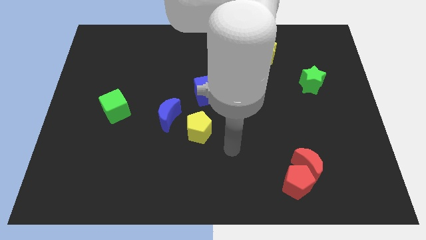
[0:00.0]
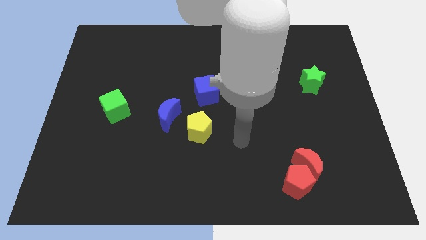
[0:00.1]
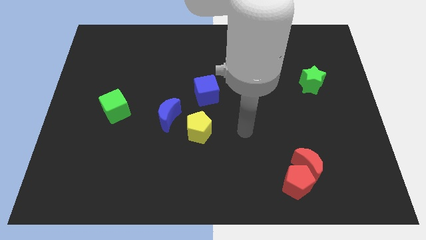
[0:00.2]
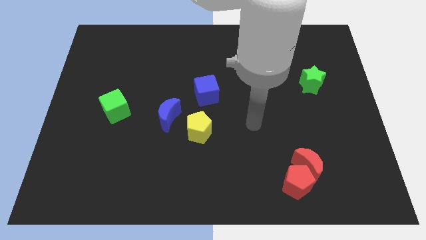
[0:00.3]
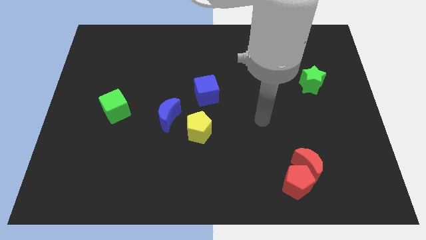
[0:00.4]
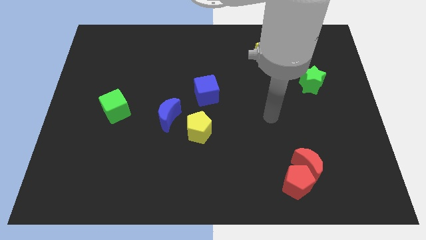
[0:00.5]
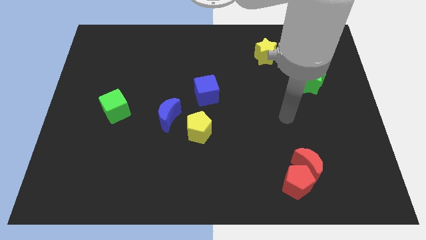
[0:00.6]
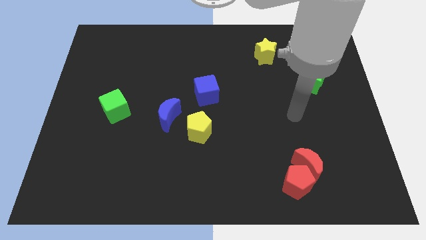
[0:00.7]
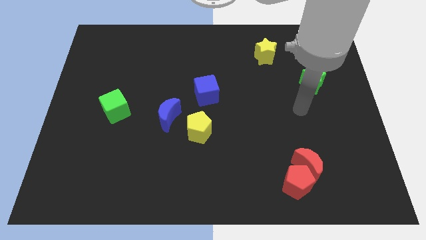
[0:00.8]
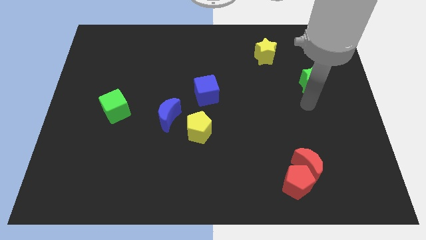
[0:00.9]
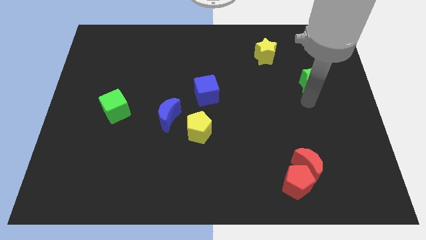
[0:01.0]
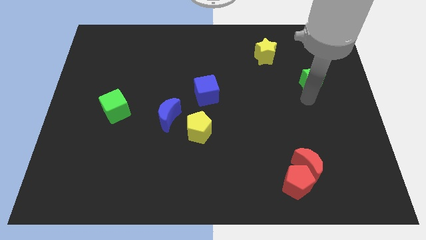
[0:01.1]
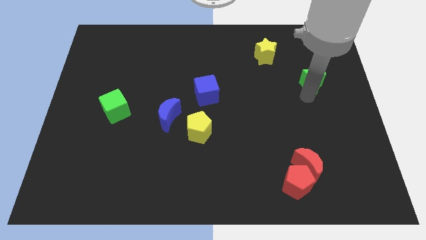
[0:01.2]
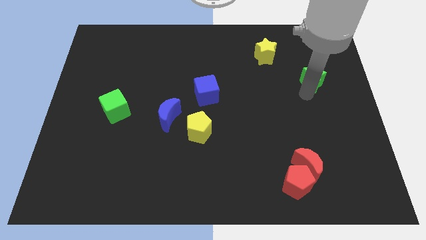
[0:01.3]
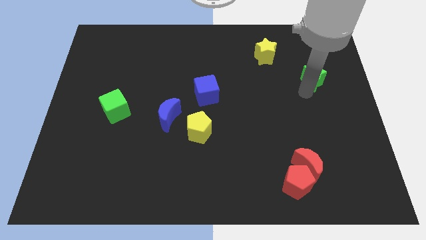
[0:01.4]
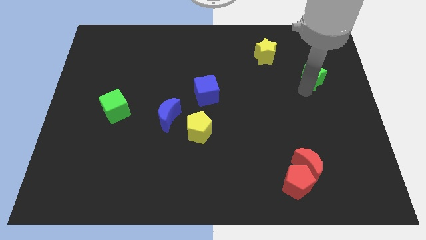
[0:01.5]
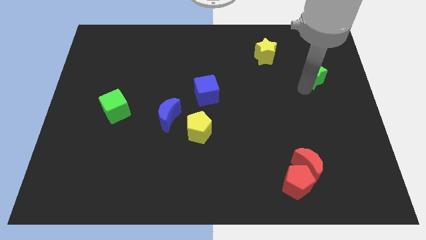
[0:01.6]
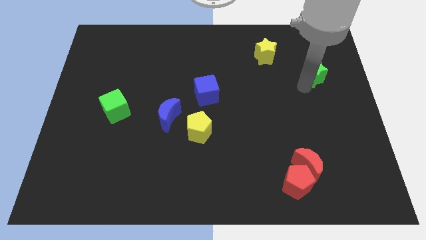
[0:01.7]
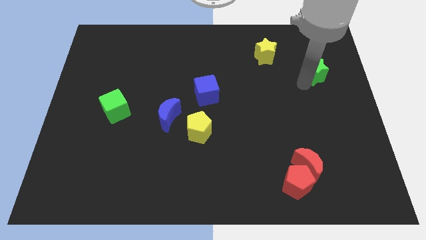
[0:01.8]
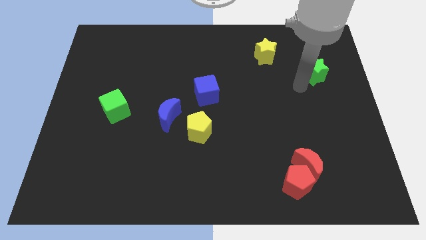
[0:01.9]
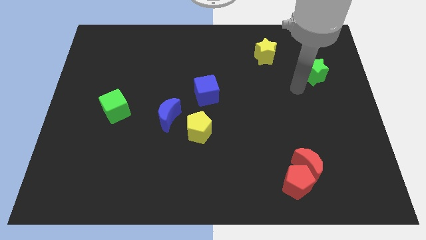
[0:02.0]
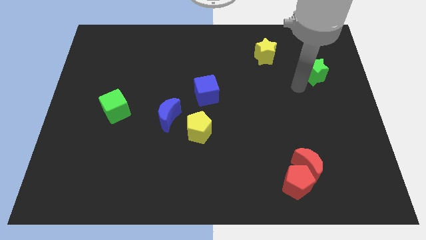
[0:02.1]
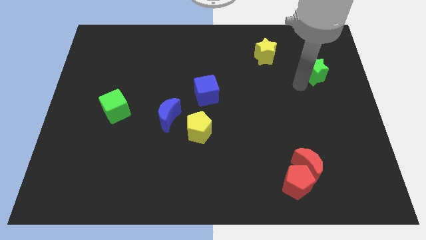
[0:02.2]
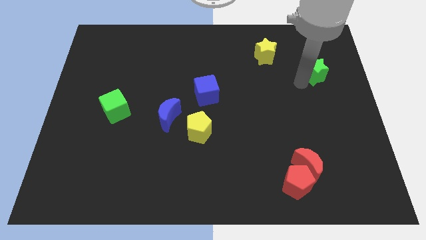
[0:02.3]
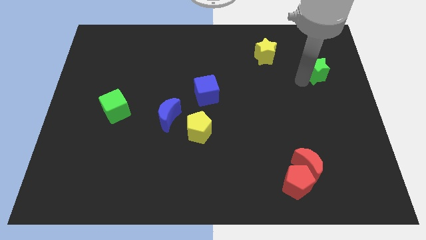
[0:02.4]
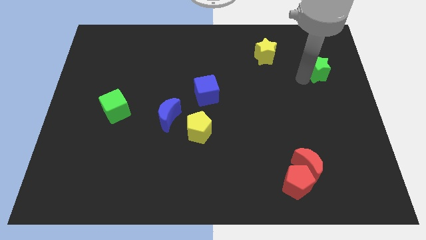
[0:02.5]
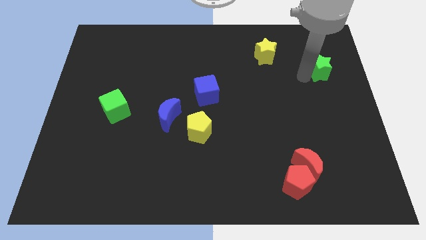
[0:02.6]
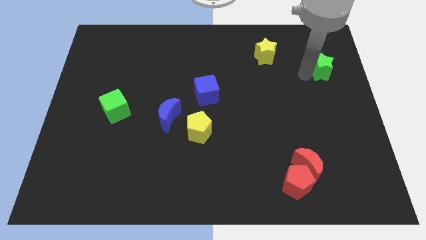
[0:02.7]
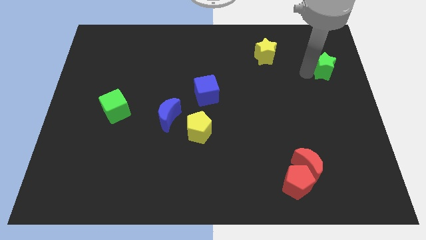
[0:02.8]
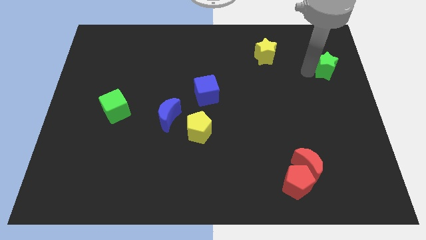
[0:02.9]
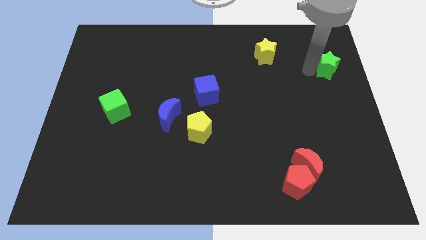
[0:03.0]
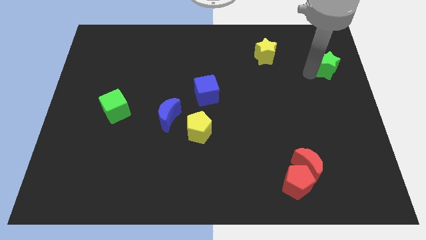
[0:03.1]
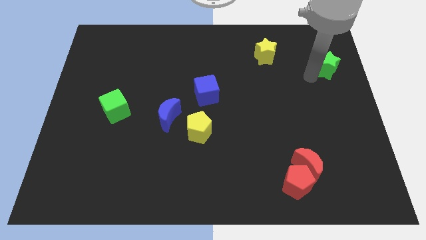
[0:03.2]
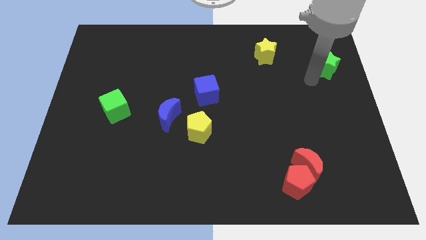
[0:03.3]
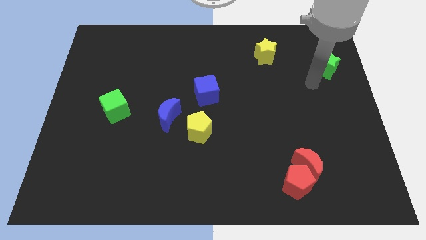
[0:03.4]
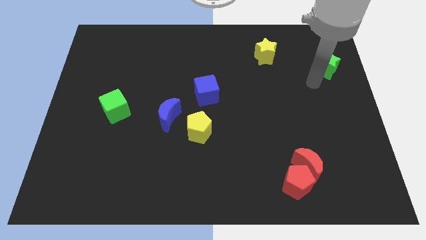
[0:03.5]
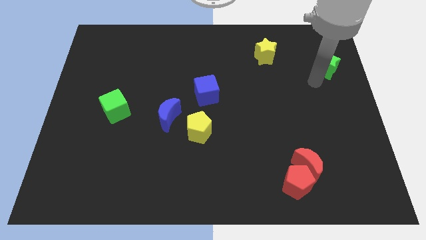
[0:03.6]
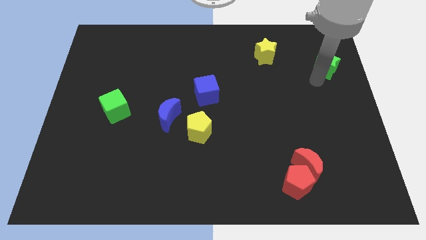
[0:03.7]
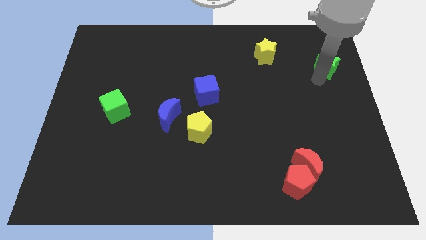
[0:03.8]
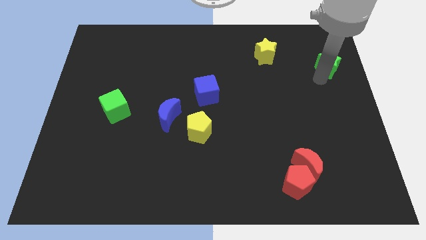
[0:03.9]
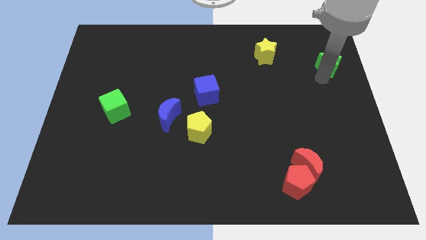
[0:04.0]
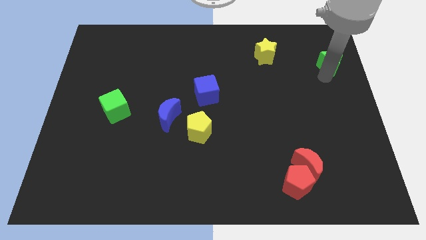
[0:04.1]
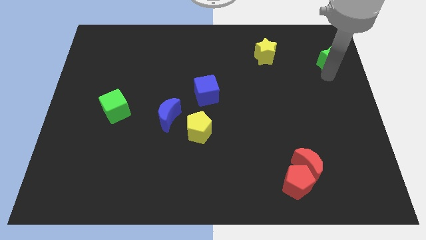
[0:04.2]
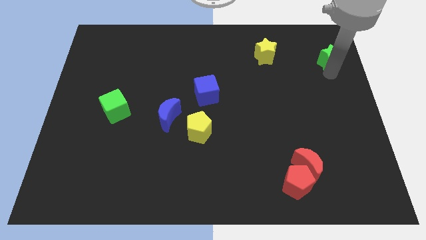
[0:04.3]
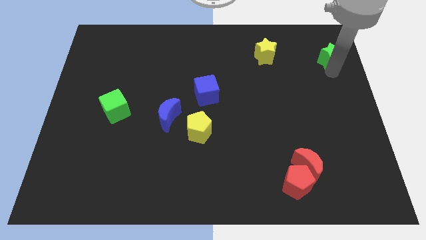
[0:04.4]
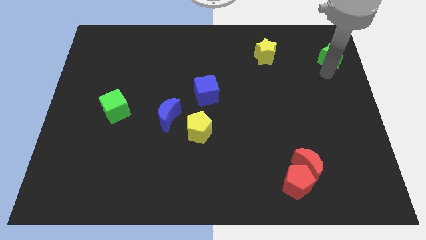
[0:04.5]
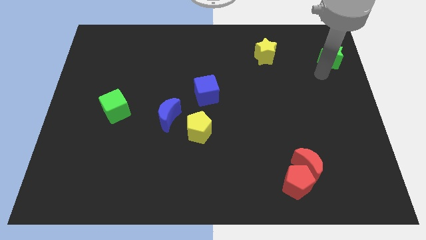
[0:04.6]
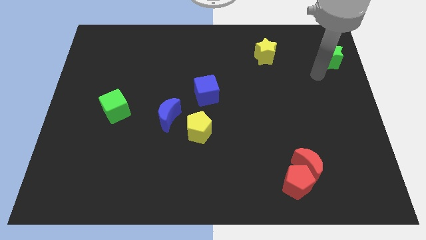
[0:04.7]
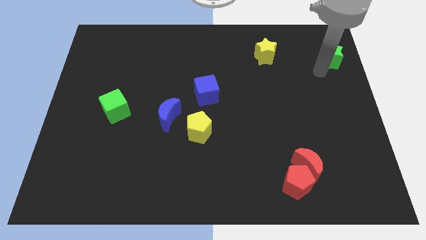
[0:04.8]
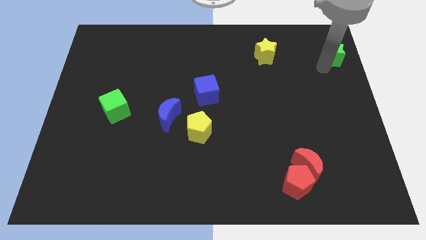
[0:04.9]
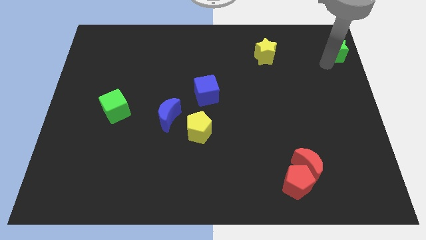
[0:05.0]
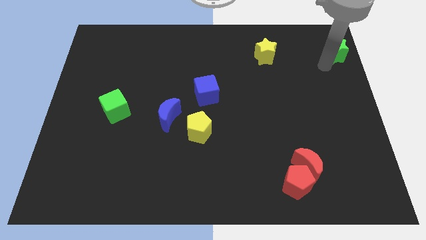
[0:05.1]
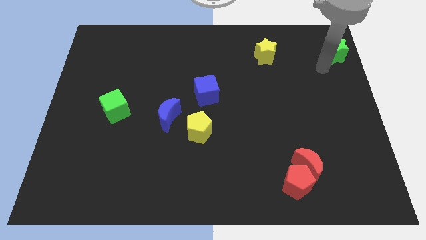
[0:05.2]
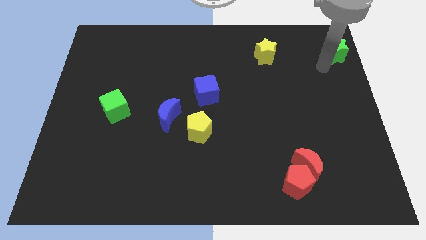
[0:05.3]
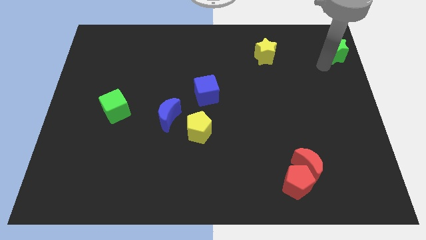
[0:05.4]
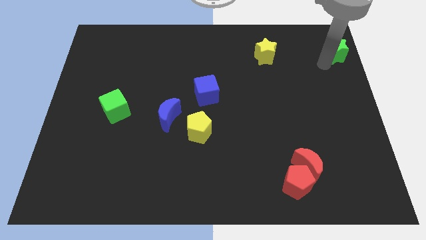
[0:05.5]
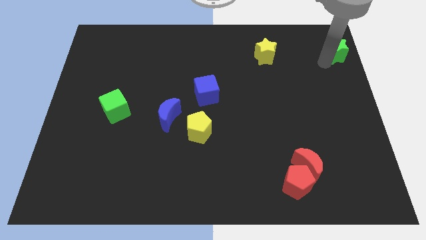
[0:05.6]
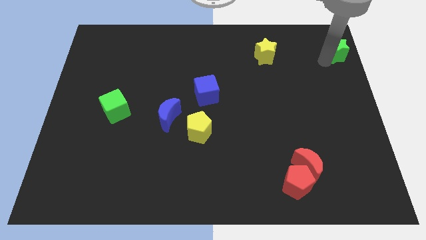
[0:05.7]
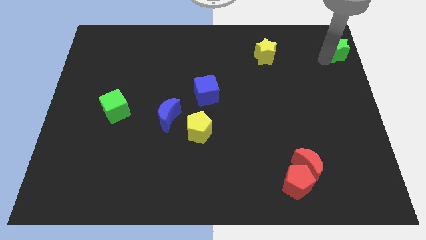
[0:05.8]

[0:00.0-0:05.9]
slide the green star to the upper right corner

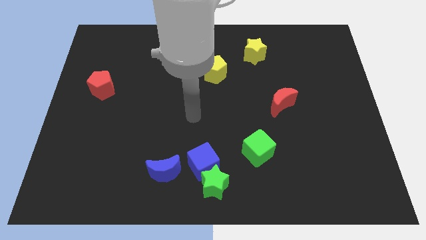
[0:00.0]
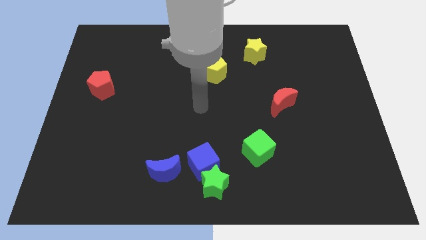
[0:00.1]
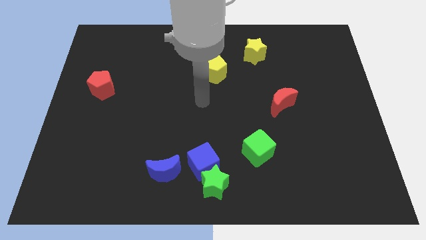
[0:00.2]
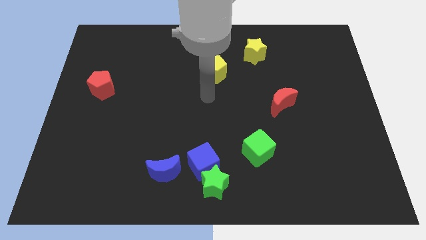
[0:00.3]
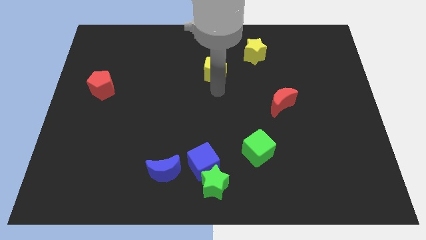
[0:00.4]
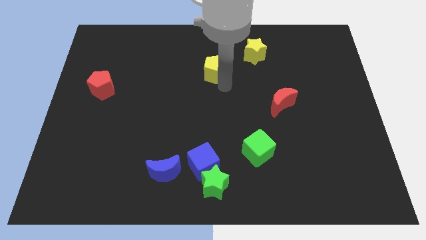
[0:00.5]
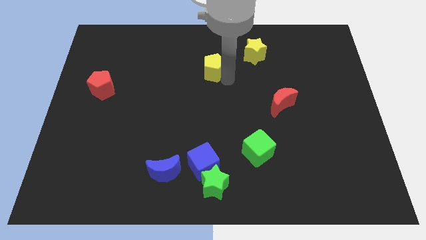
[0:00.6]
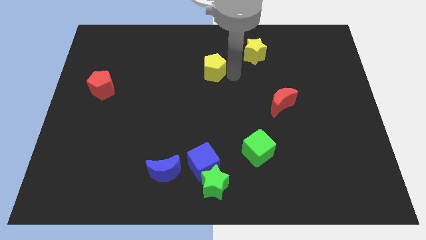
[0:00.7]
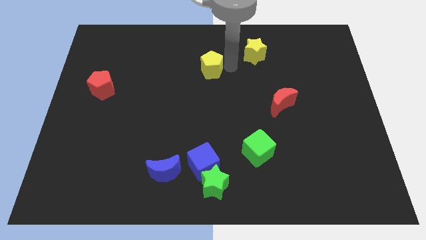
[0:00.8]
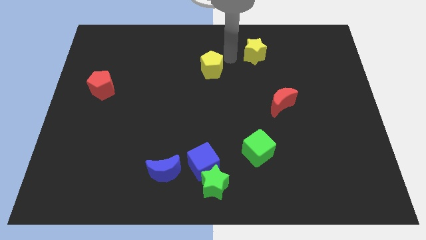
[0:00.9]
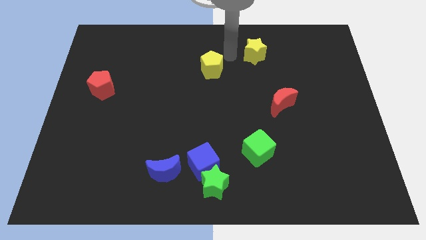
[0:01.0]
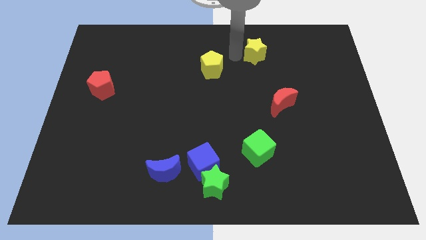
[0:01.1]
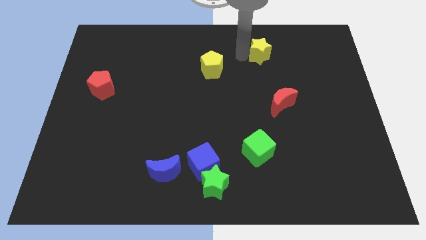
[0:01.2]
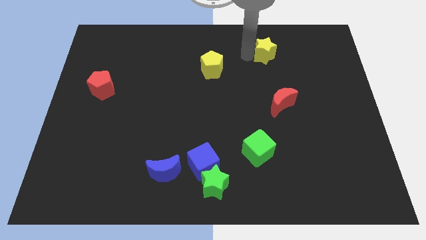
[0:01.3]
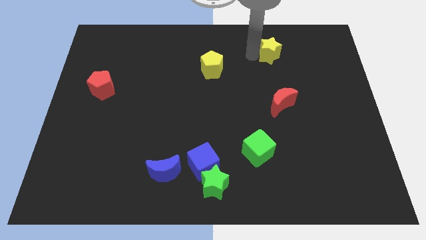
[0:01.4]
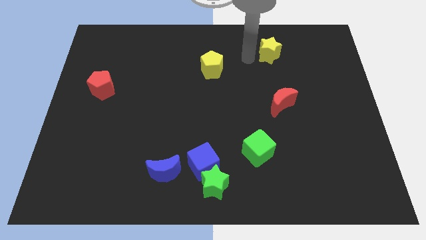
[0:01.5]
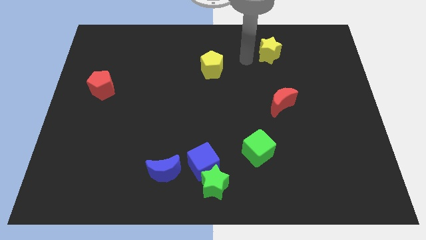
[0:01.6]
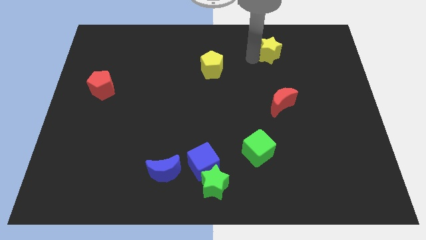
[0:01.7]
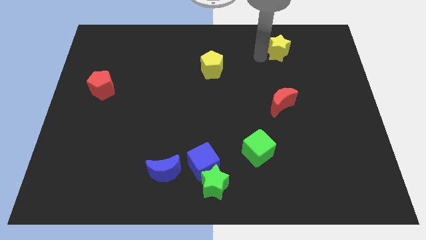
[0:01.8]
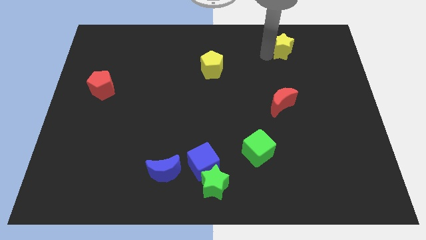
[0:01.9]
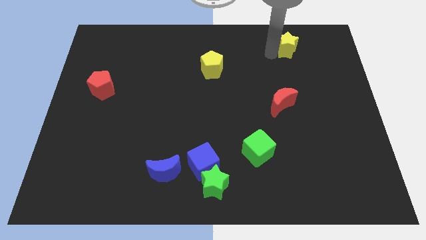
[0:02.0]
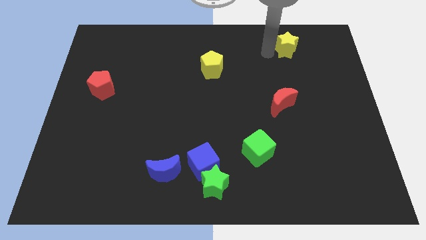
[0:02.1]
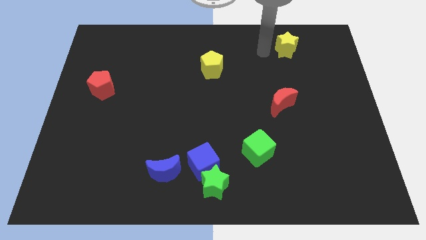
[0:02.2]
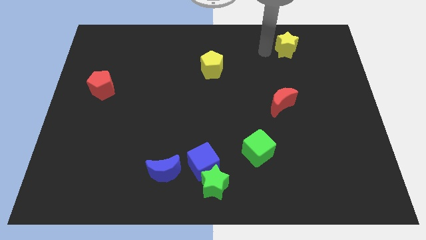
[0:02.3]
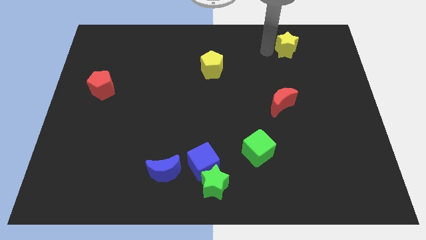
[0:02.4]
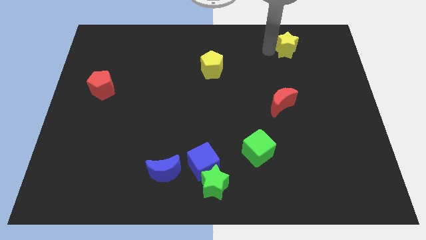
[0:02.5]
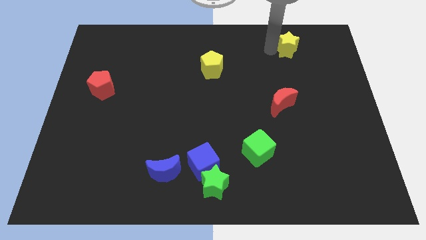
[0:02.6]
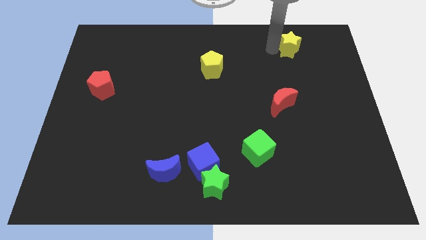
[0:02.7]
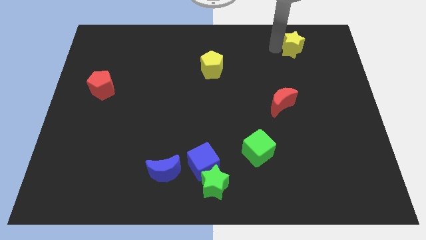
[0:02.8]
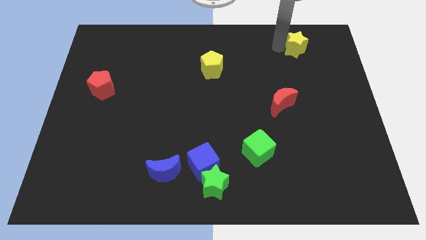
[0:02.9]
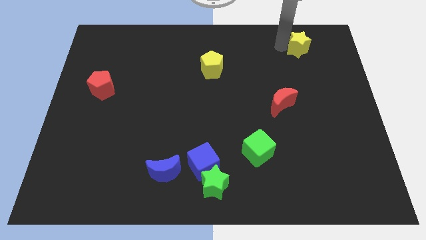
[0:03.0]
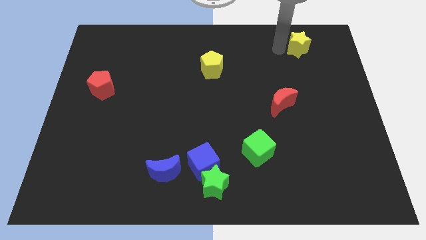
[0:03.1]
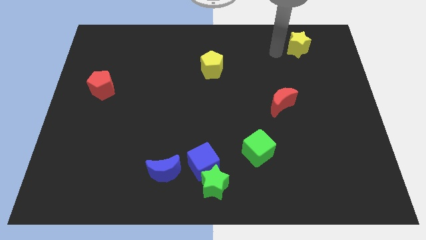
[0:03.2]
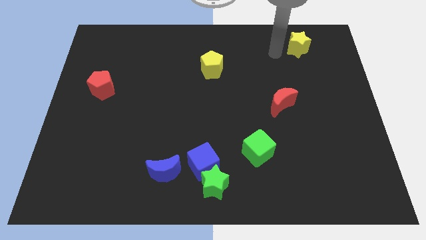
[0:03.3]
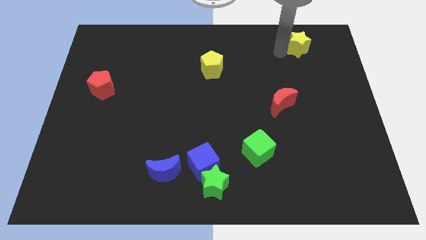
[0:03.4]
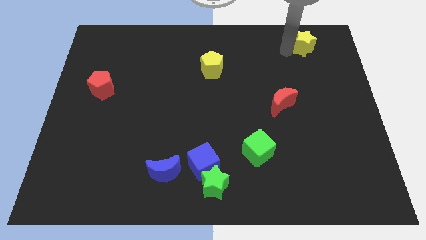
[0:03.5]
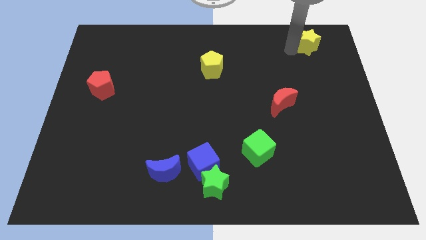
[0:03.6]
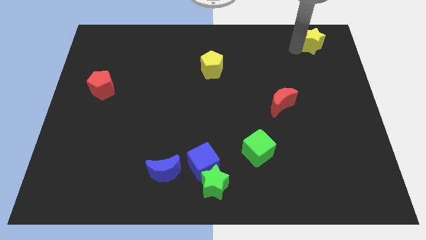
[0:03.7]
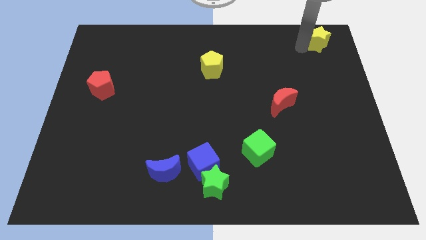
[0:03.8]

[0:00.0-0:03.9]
slide the yellow star to the top right
